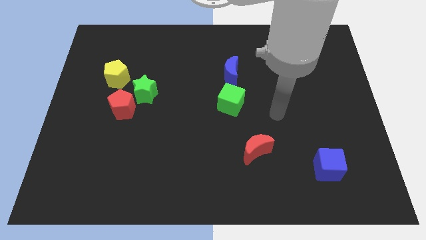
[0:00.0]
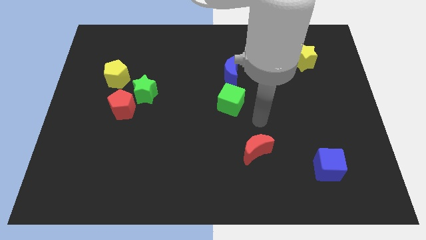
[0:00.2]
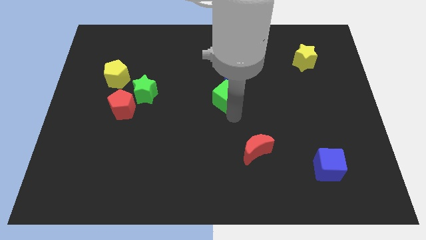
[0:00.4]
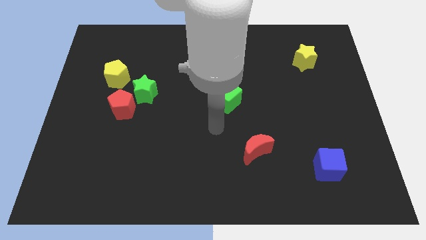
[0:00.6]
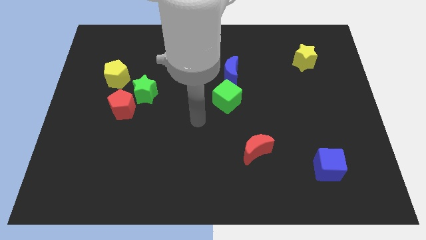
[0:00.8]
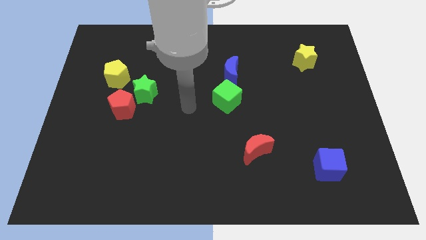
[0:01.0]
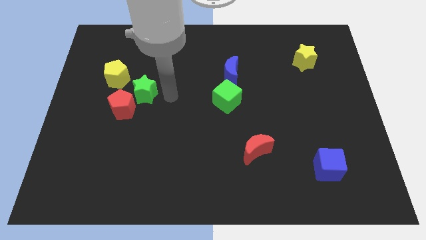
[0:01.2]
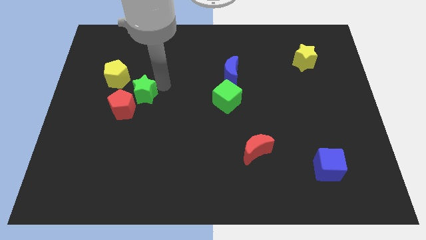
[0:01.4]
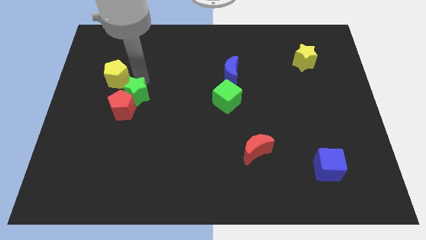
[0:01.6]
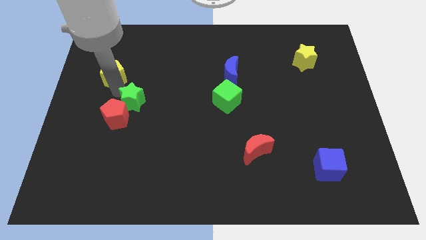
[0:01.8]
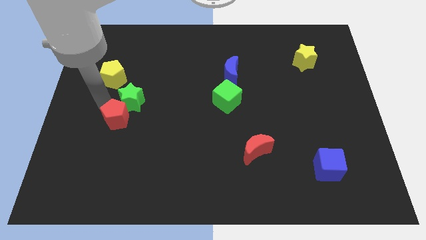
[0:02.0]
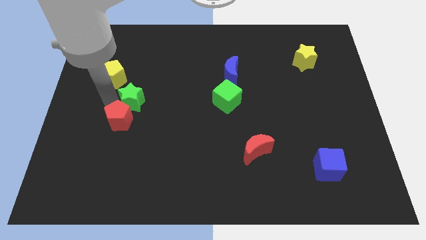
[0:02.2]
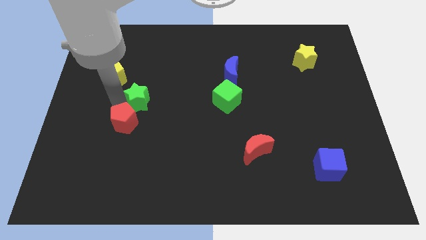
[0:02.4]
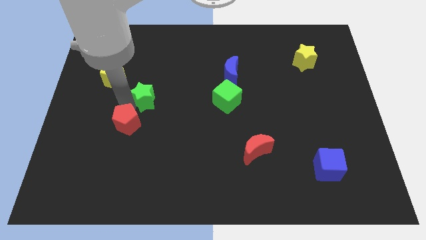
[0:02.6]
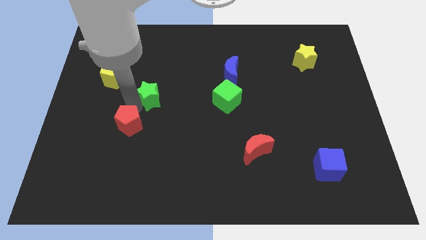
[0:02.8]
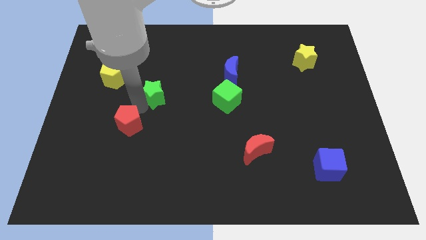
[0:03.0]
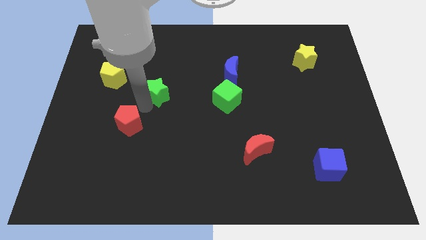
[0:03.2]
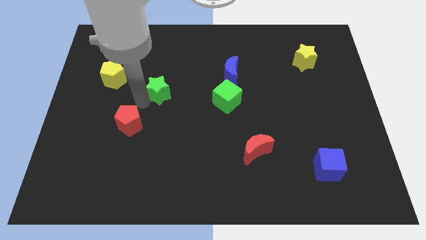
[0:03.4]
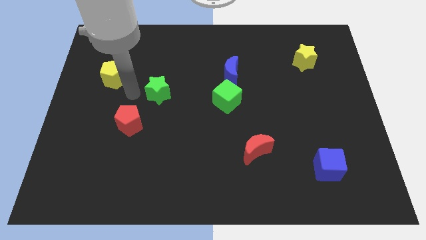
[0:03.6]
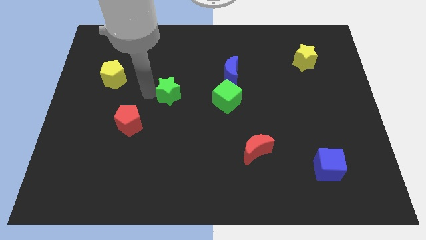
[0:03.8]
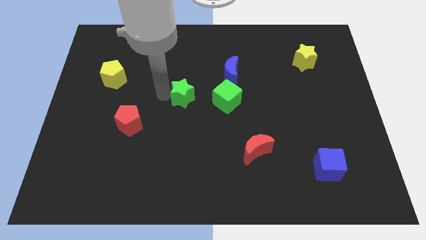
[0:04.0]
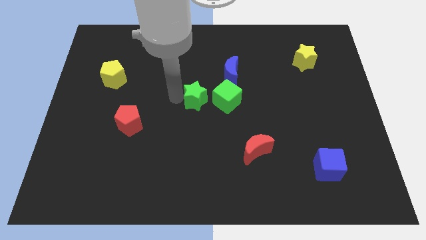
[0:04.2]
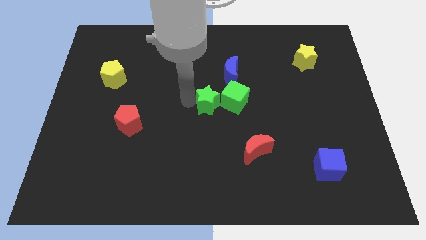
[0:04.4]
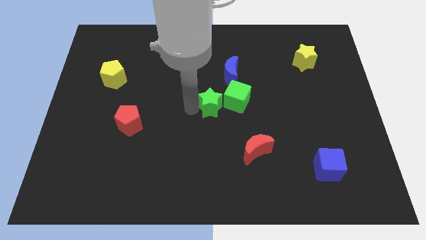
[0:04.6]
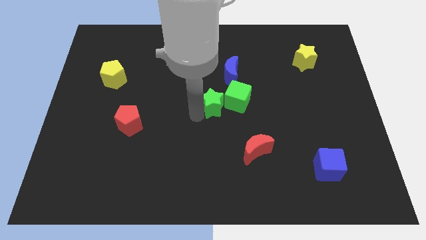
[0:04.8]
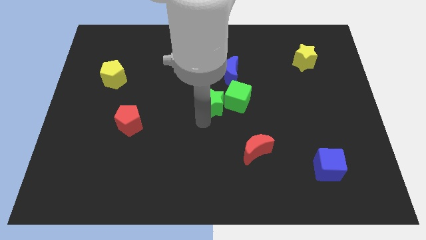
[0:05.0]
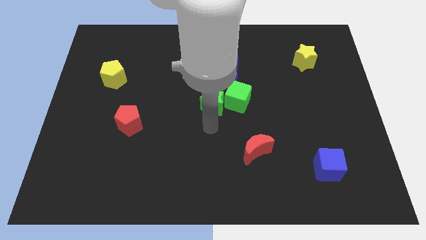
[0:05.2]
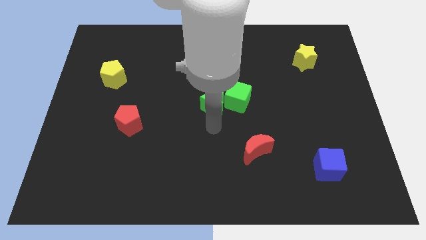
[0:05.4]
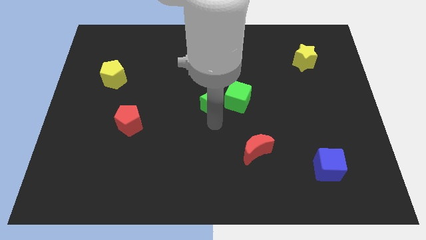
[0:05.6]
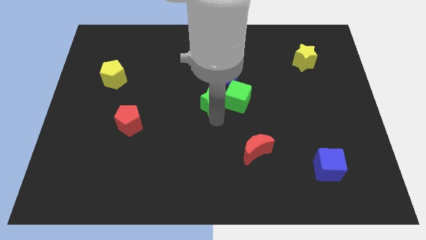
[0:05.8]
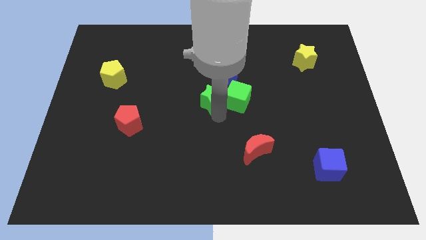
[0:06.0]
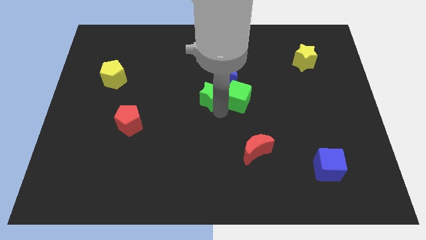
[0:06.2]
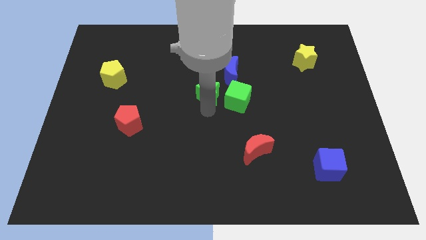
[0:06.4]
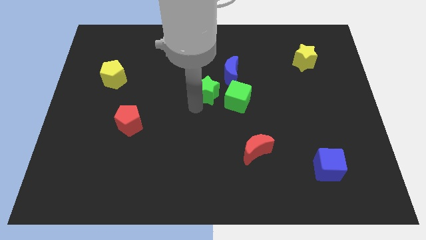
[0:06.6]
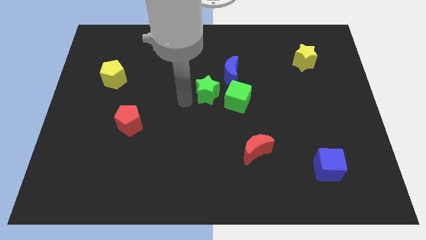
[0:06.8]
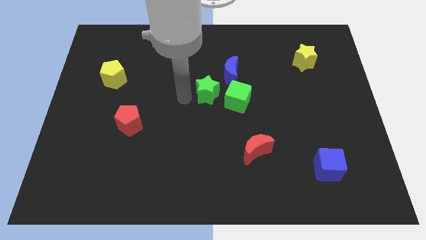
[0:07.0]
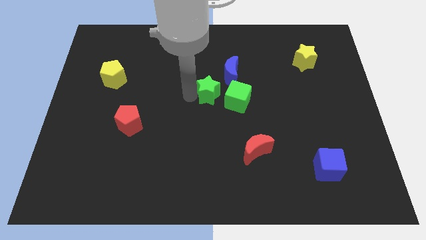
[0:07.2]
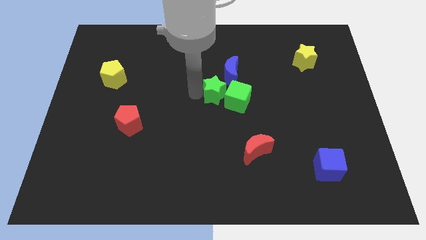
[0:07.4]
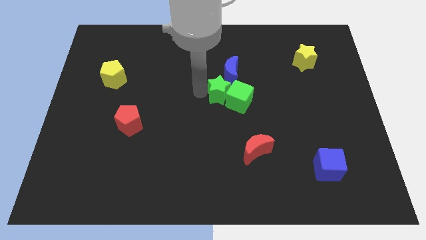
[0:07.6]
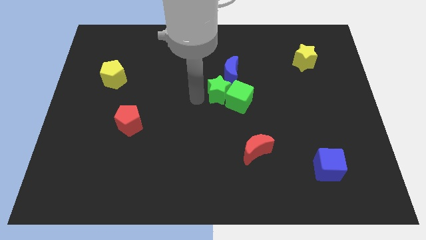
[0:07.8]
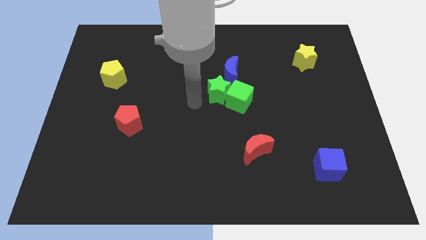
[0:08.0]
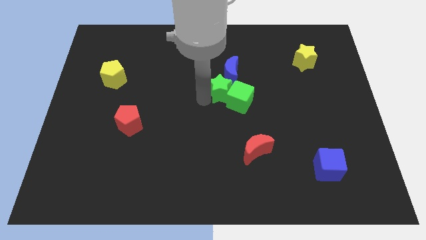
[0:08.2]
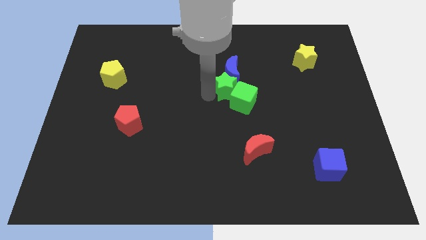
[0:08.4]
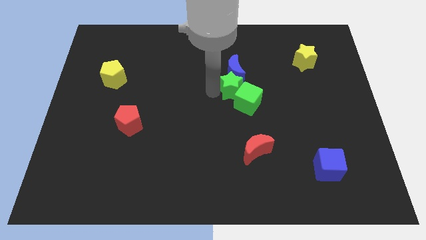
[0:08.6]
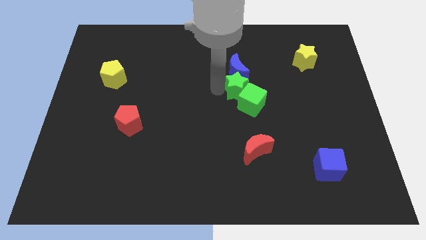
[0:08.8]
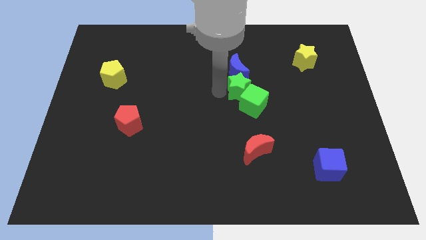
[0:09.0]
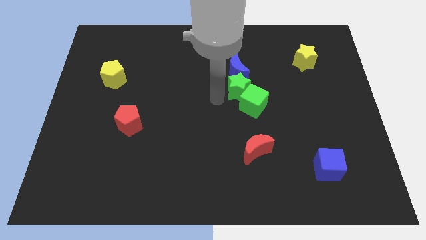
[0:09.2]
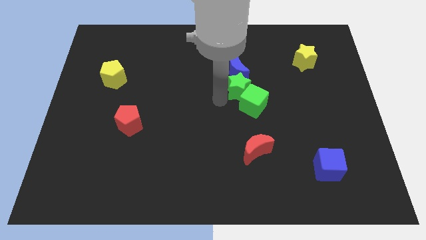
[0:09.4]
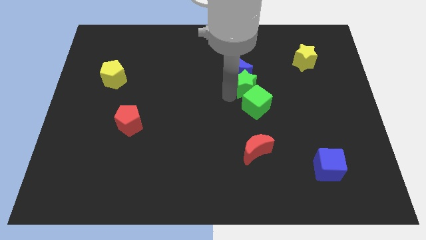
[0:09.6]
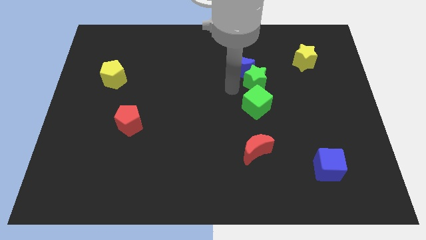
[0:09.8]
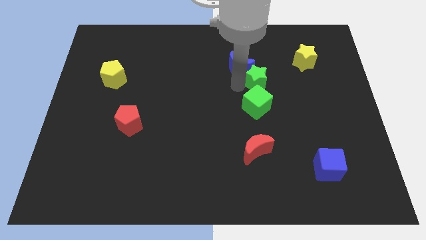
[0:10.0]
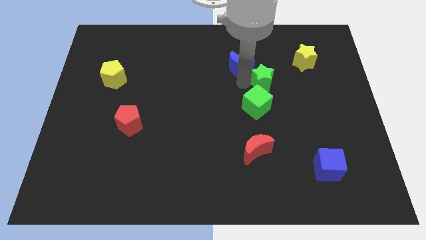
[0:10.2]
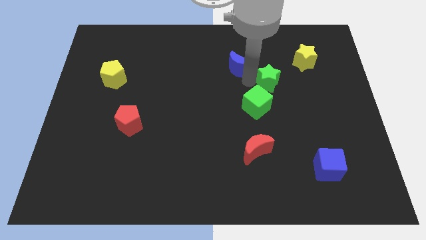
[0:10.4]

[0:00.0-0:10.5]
slide the green star to the bottom left of the yellow star

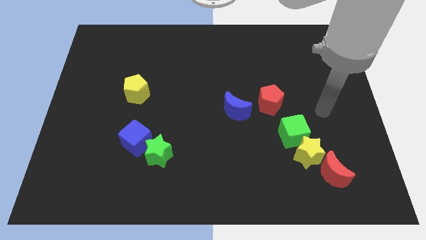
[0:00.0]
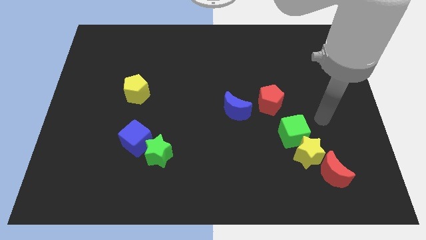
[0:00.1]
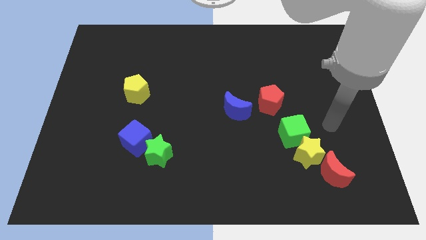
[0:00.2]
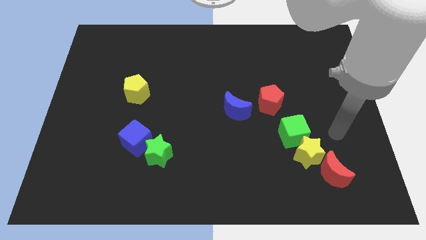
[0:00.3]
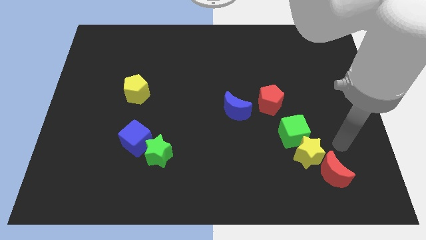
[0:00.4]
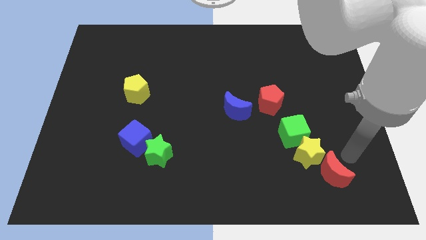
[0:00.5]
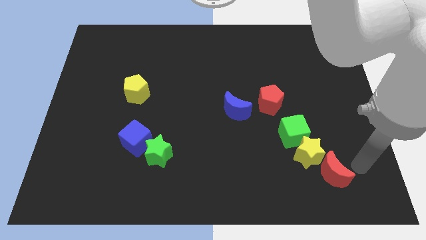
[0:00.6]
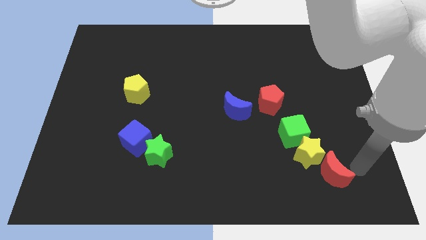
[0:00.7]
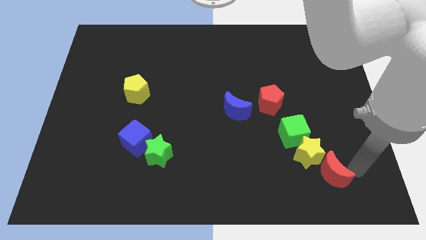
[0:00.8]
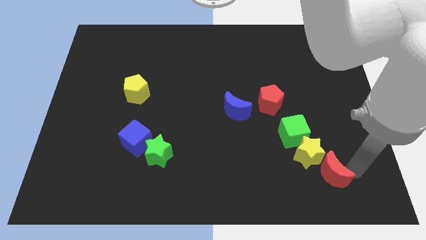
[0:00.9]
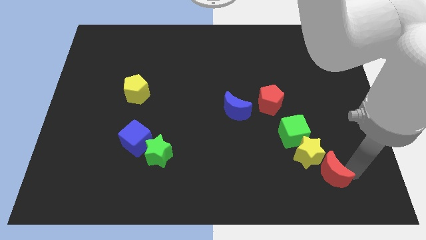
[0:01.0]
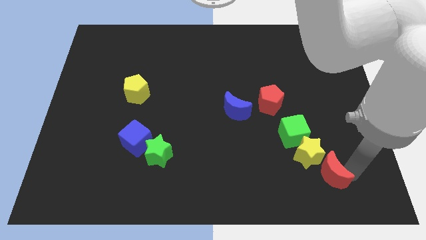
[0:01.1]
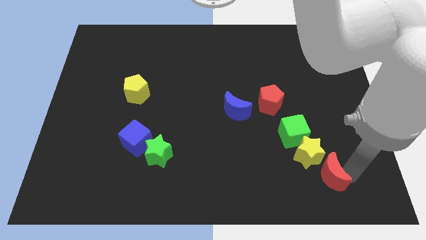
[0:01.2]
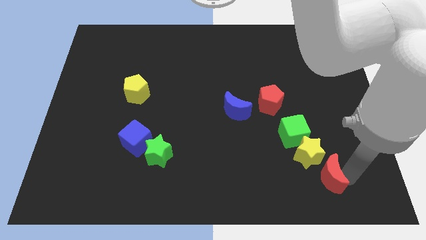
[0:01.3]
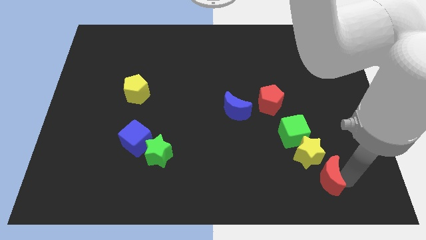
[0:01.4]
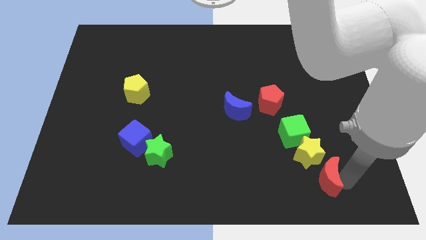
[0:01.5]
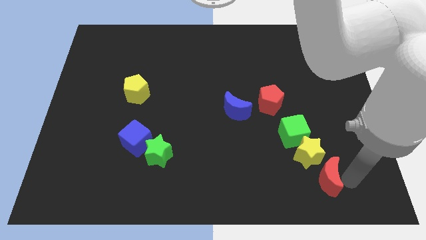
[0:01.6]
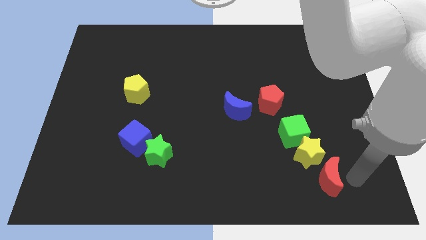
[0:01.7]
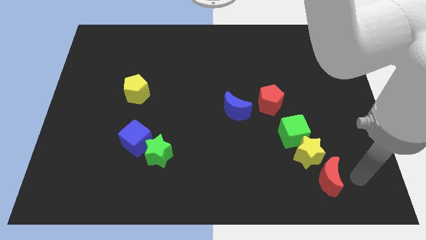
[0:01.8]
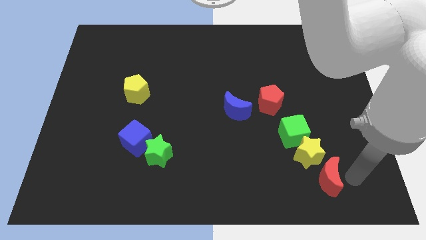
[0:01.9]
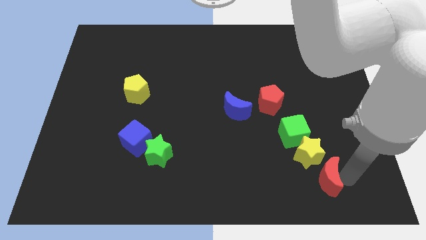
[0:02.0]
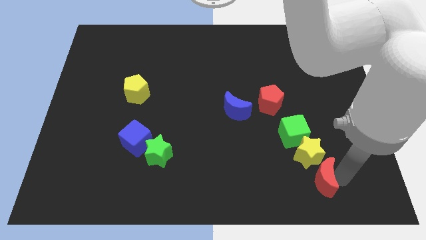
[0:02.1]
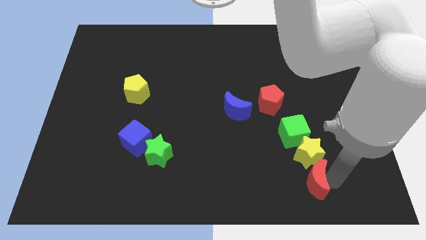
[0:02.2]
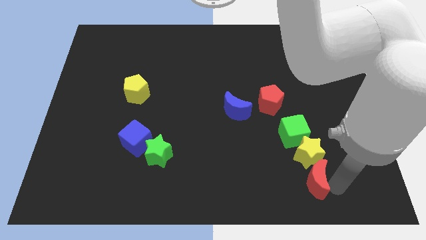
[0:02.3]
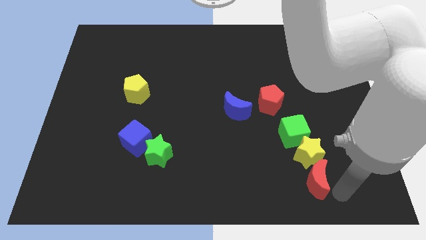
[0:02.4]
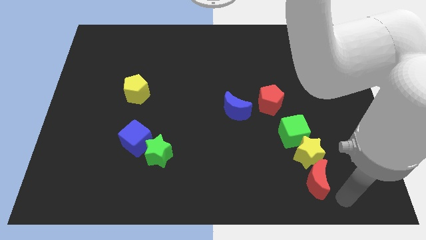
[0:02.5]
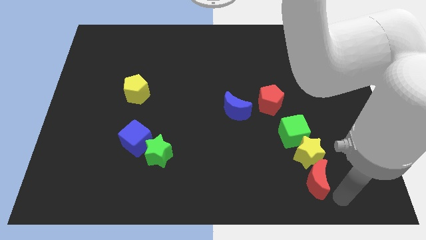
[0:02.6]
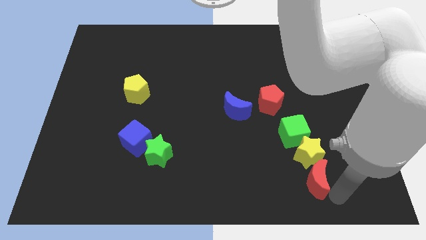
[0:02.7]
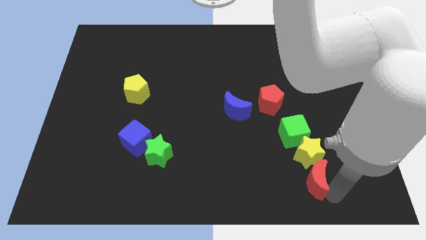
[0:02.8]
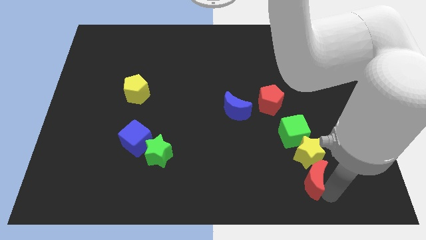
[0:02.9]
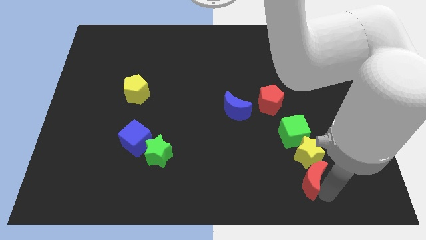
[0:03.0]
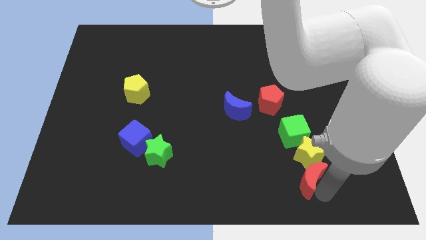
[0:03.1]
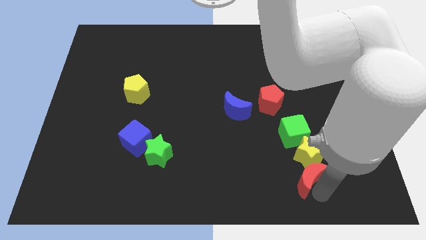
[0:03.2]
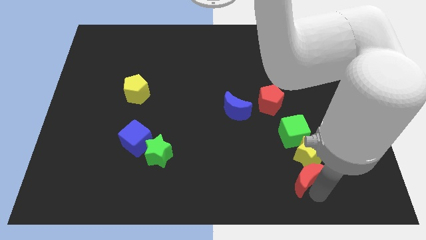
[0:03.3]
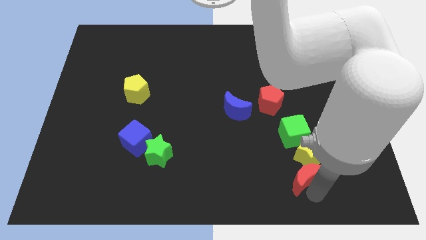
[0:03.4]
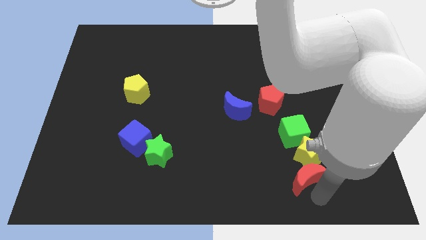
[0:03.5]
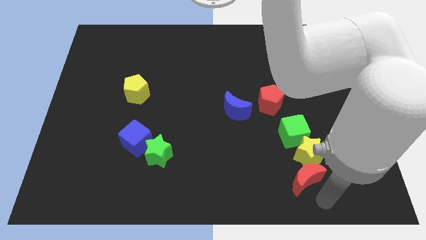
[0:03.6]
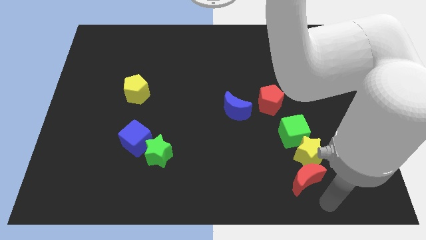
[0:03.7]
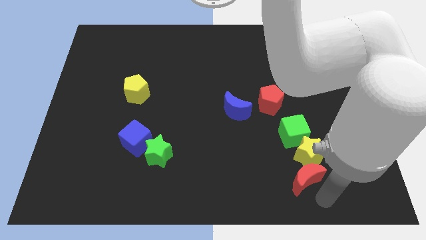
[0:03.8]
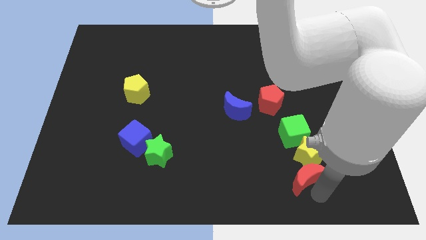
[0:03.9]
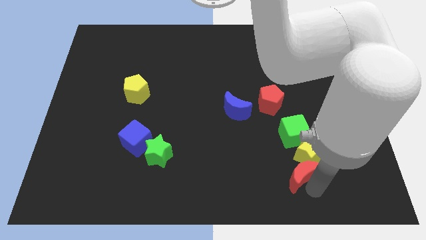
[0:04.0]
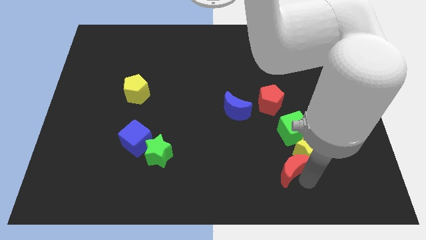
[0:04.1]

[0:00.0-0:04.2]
push the red moon just left of the yellow star
